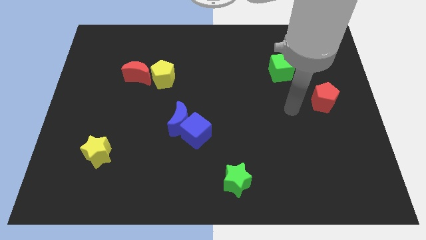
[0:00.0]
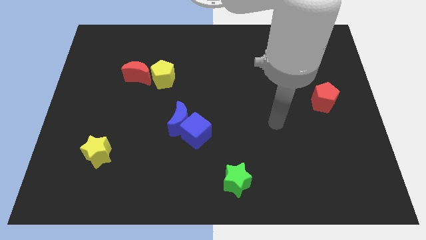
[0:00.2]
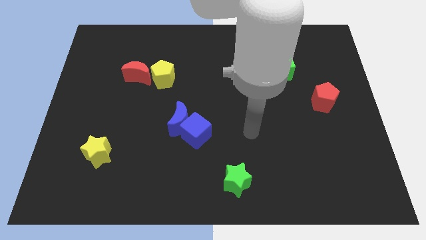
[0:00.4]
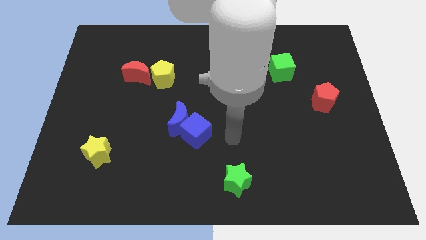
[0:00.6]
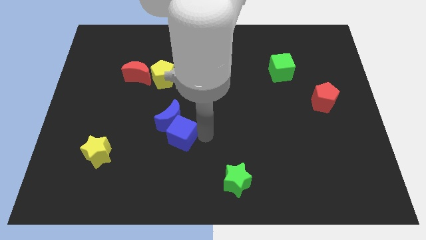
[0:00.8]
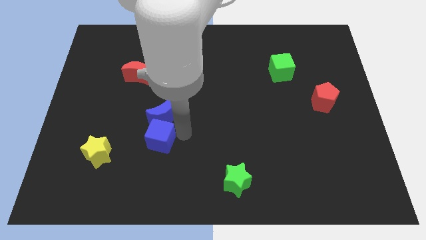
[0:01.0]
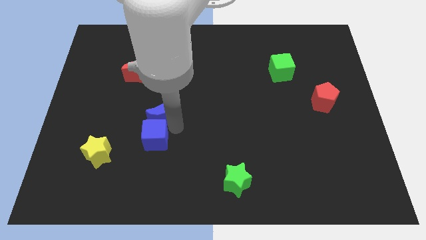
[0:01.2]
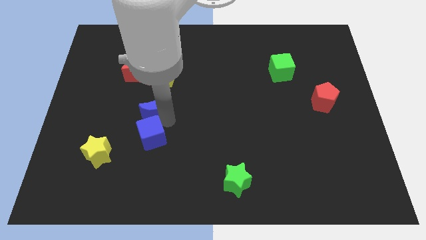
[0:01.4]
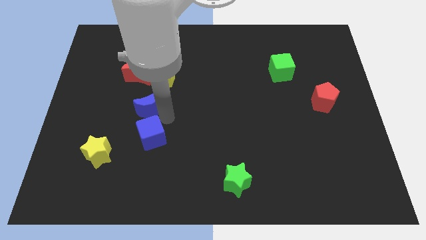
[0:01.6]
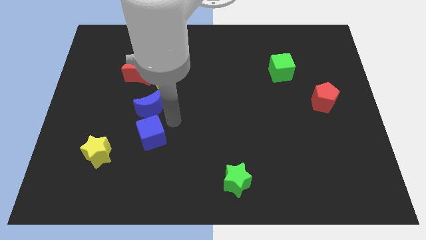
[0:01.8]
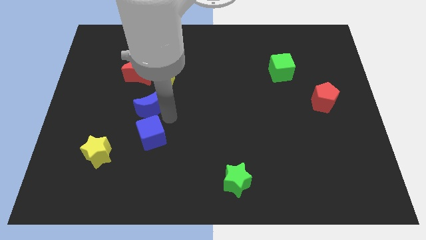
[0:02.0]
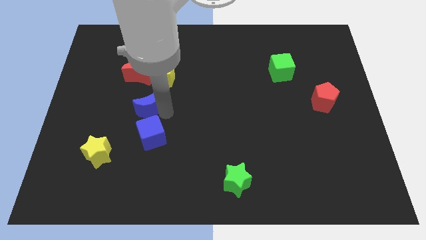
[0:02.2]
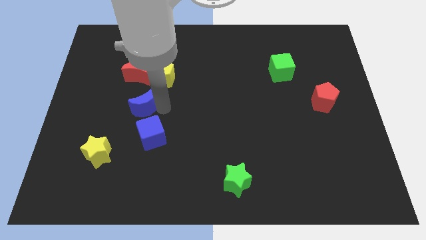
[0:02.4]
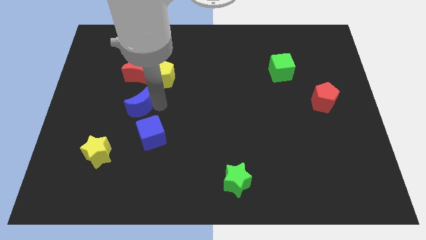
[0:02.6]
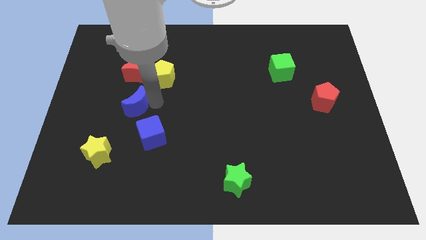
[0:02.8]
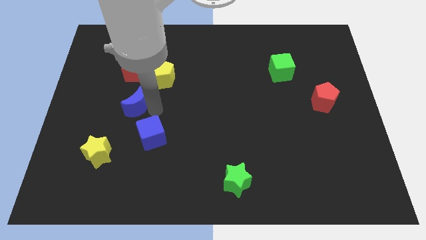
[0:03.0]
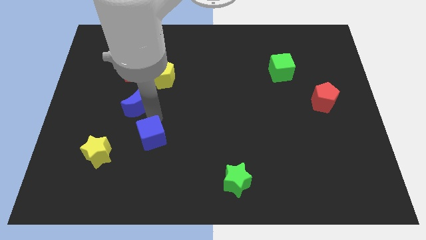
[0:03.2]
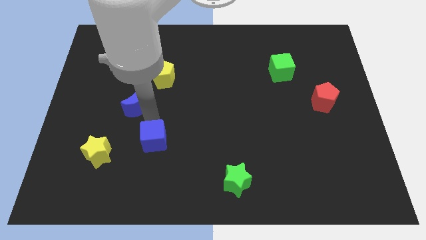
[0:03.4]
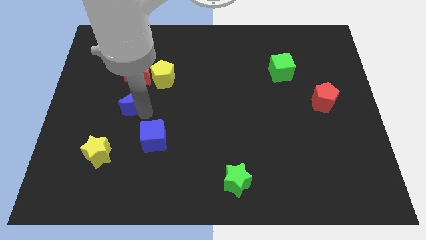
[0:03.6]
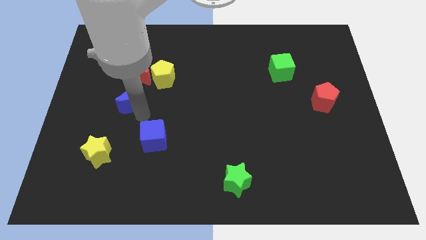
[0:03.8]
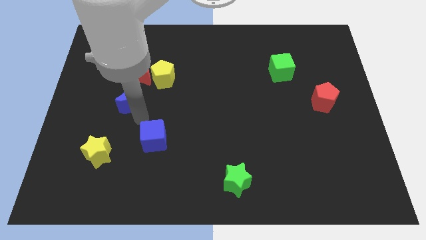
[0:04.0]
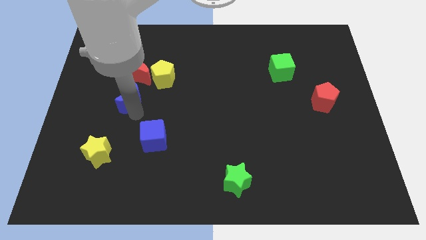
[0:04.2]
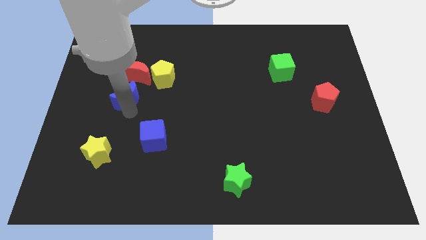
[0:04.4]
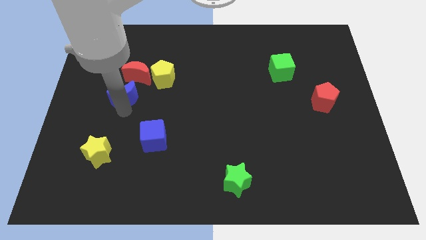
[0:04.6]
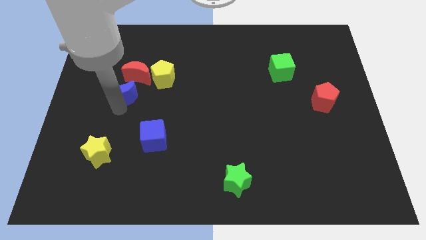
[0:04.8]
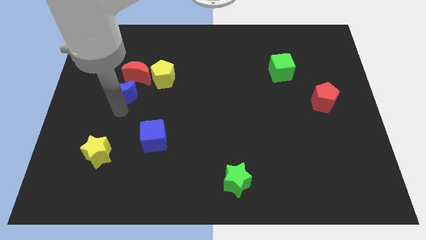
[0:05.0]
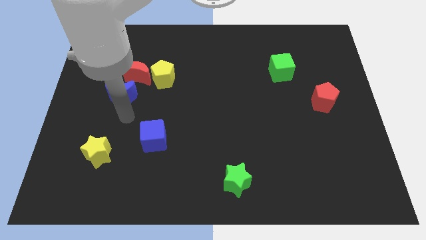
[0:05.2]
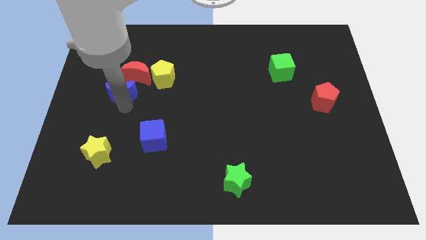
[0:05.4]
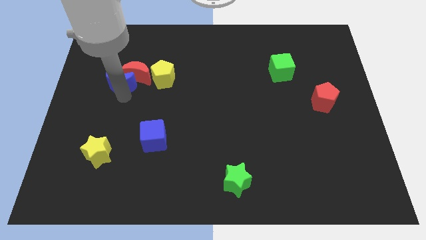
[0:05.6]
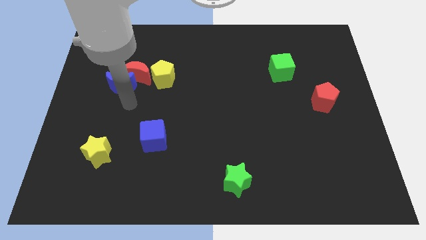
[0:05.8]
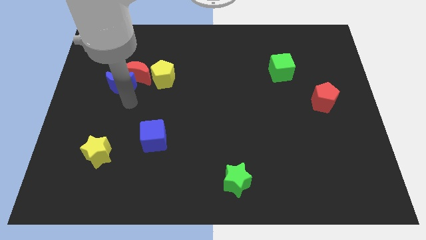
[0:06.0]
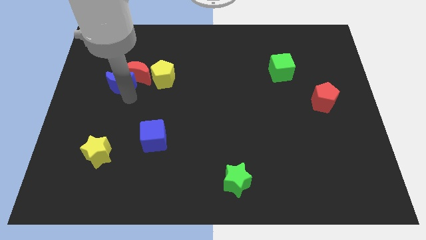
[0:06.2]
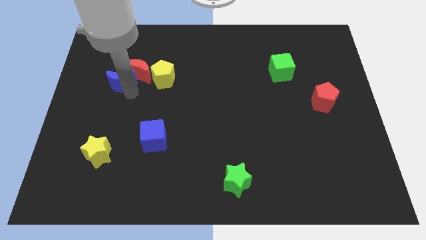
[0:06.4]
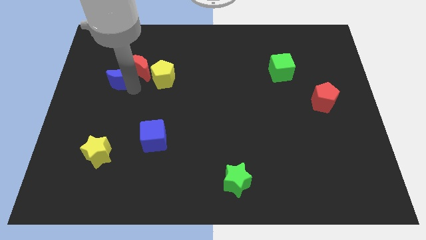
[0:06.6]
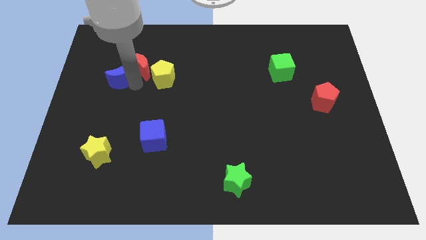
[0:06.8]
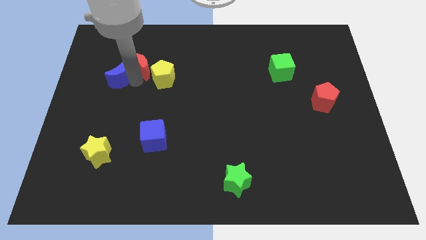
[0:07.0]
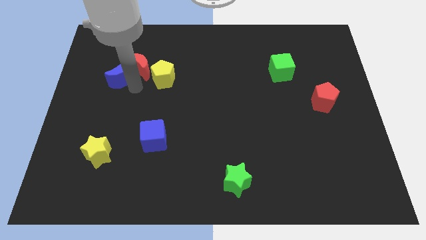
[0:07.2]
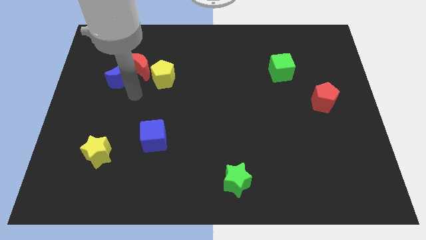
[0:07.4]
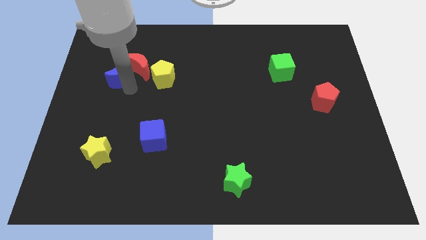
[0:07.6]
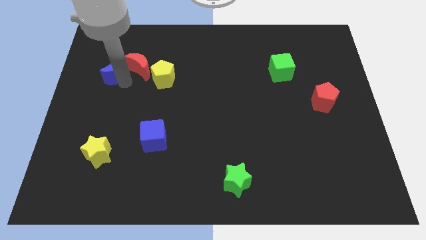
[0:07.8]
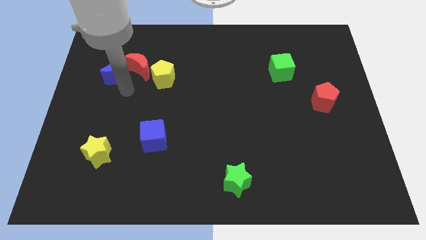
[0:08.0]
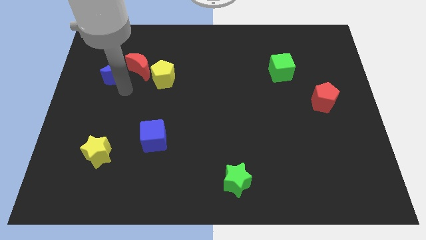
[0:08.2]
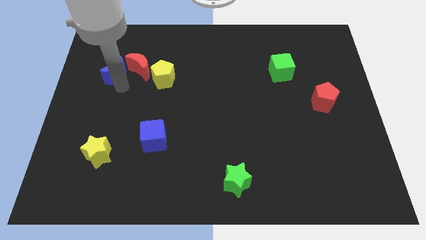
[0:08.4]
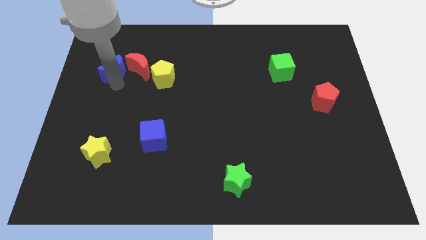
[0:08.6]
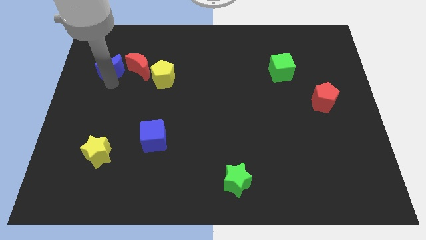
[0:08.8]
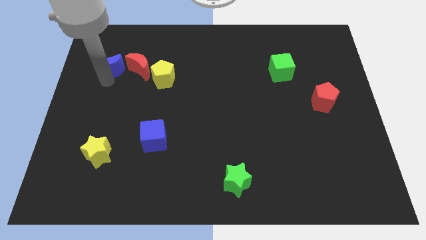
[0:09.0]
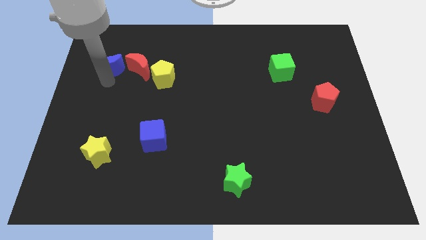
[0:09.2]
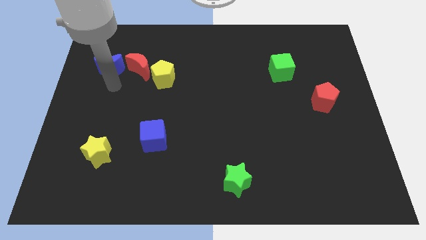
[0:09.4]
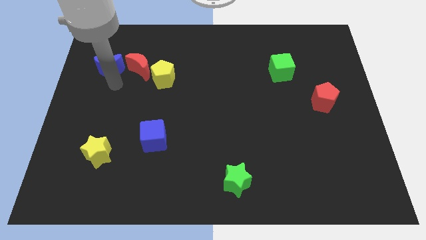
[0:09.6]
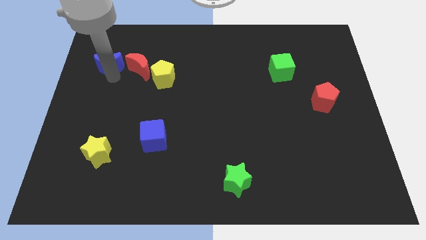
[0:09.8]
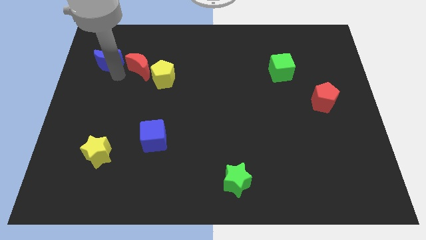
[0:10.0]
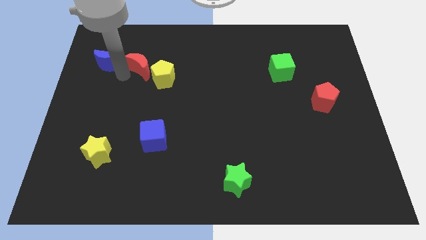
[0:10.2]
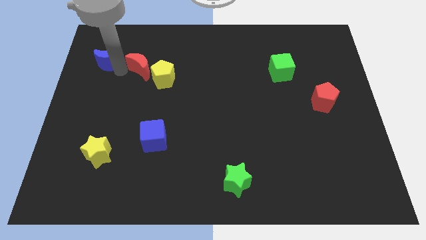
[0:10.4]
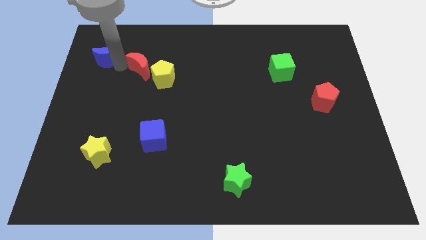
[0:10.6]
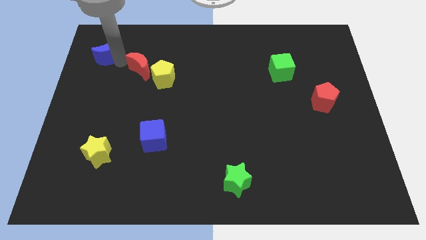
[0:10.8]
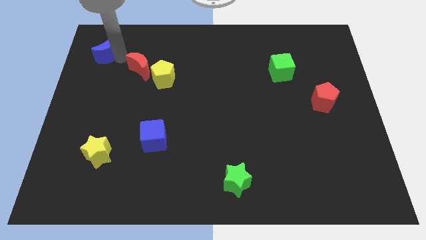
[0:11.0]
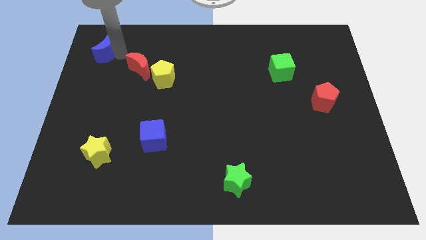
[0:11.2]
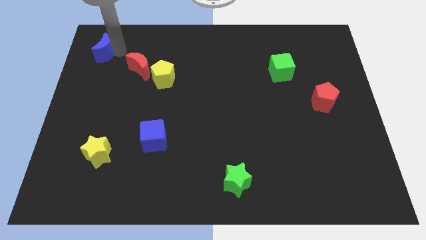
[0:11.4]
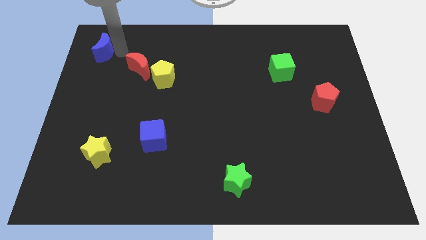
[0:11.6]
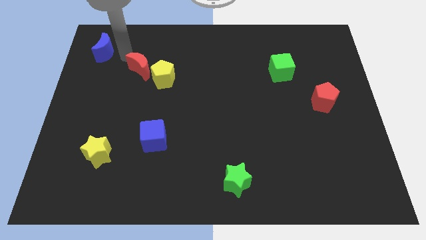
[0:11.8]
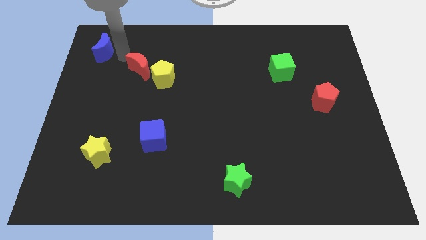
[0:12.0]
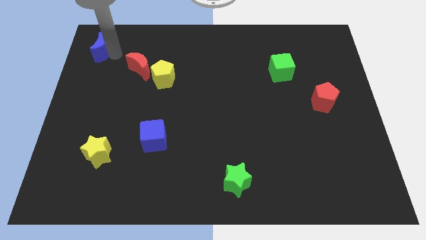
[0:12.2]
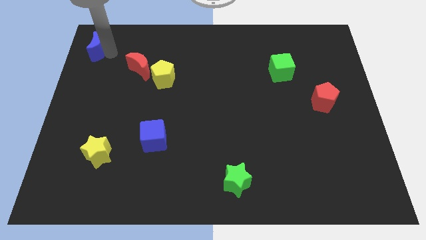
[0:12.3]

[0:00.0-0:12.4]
push the blue moon to the upper left corner
